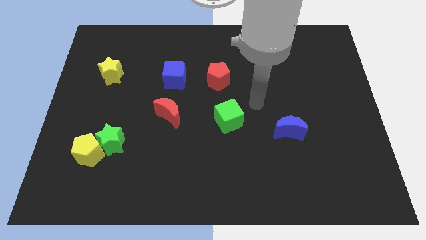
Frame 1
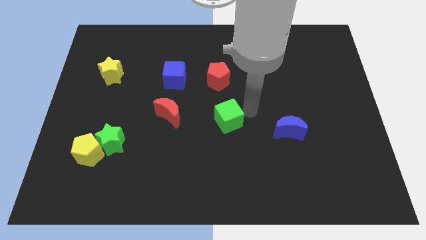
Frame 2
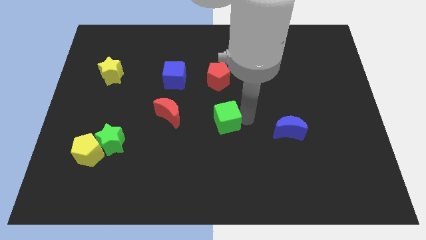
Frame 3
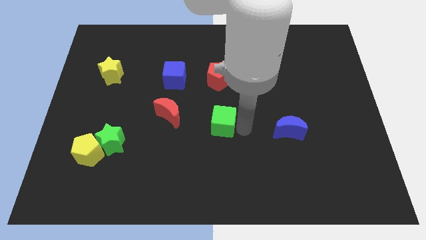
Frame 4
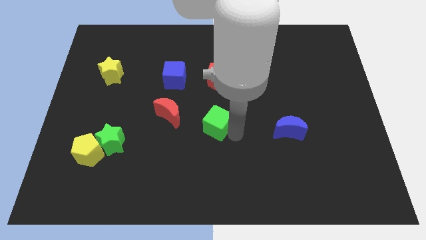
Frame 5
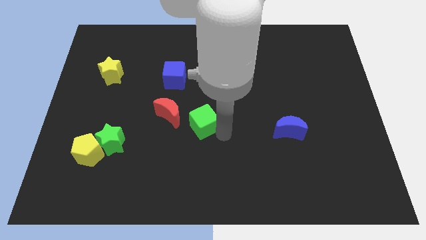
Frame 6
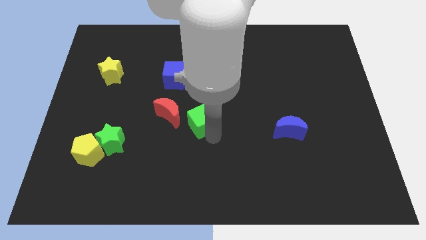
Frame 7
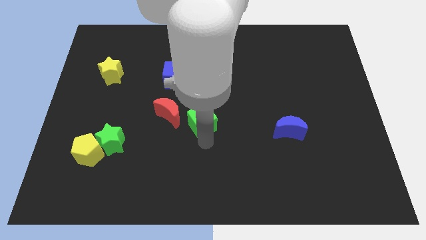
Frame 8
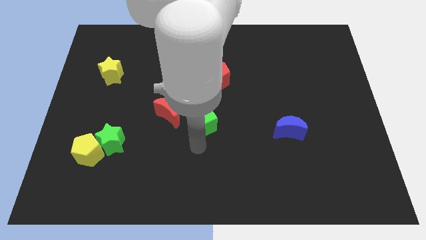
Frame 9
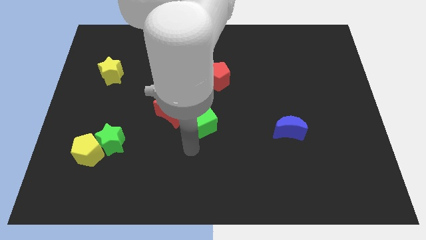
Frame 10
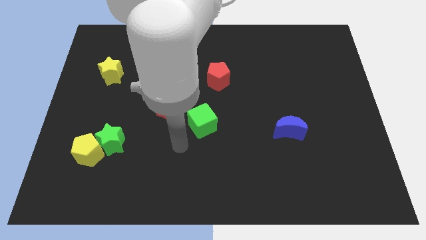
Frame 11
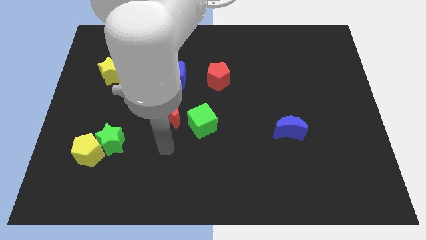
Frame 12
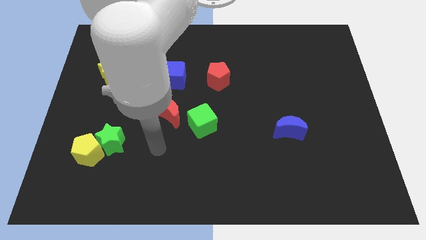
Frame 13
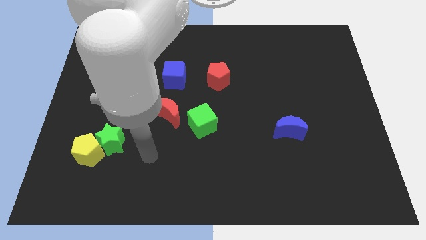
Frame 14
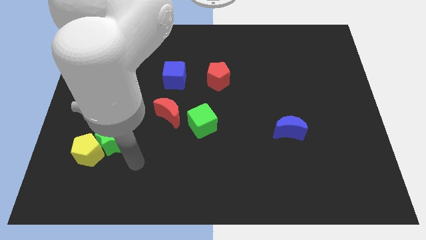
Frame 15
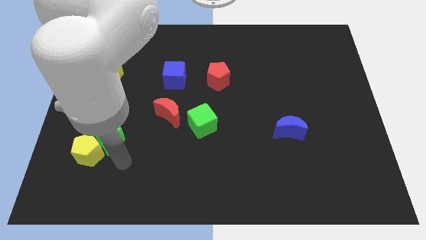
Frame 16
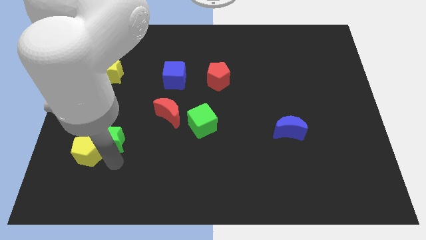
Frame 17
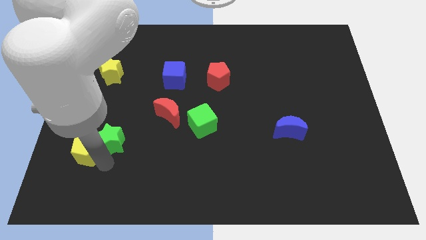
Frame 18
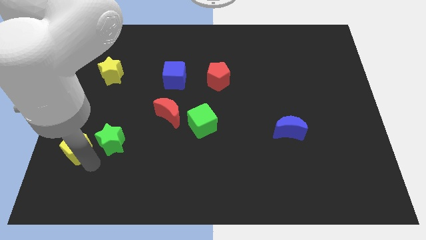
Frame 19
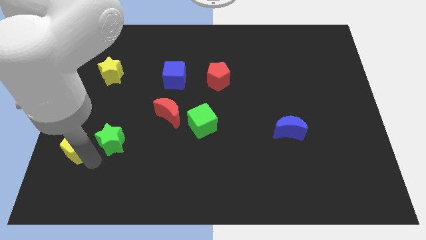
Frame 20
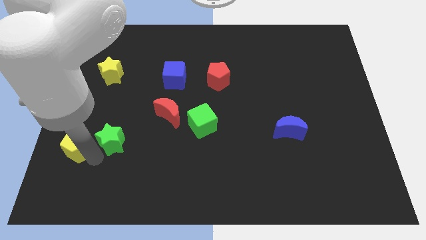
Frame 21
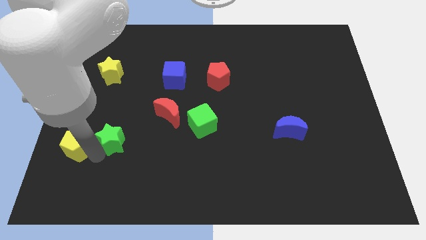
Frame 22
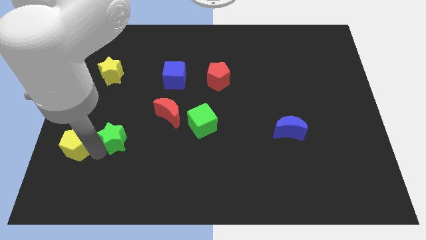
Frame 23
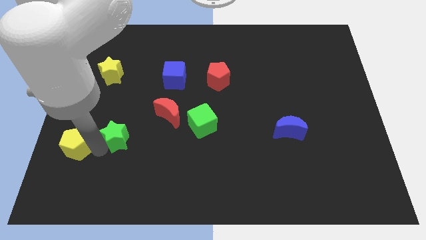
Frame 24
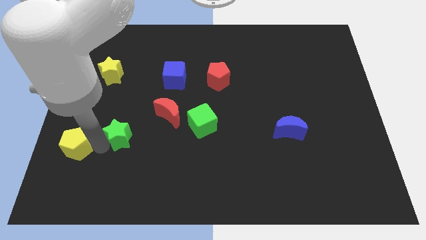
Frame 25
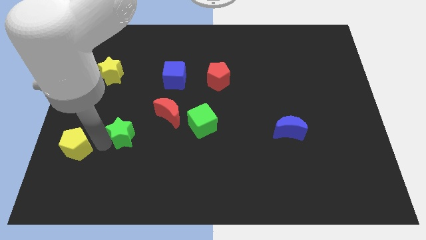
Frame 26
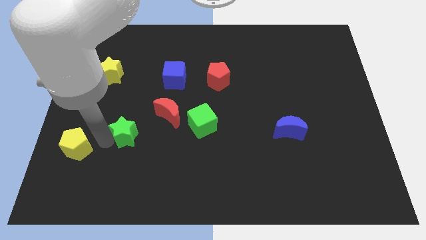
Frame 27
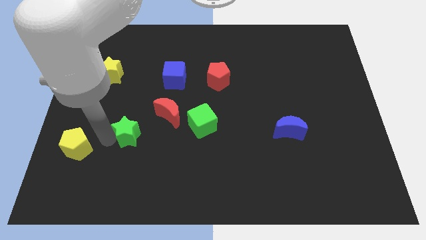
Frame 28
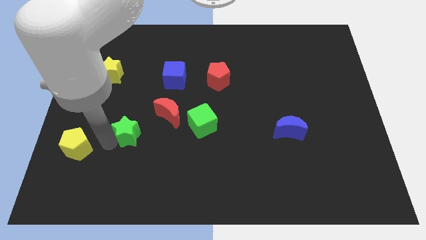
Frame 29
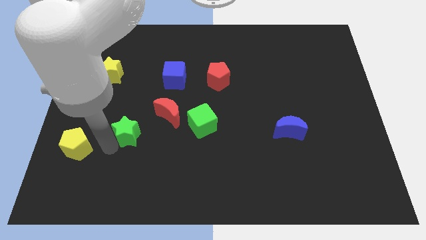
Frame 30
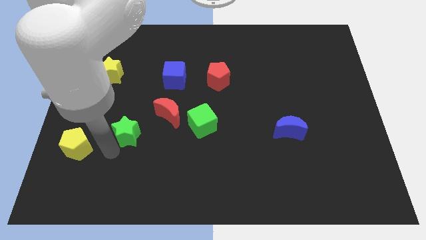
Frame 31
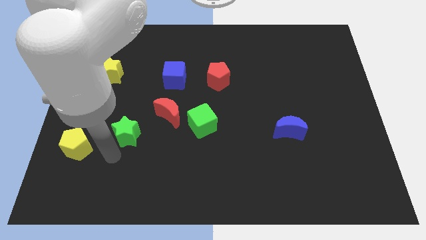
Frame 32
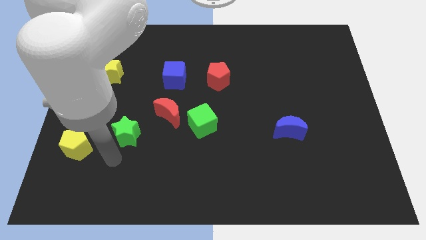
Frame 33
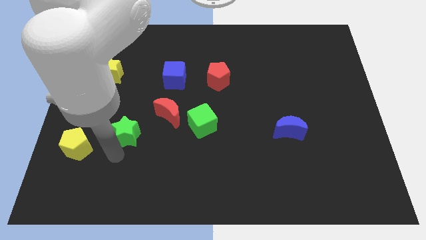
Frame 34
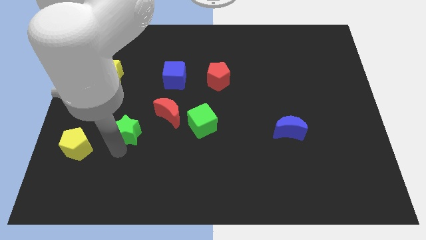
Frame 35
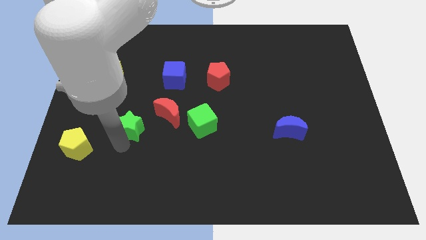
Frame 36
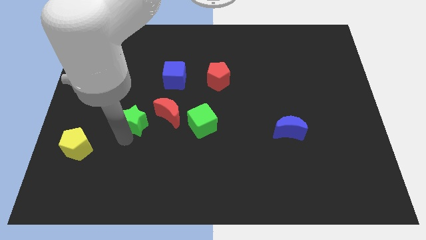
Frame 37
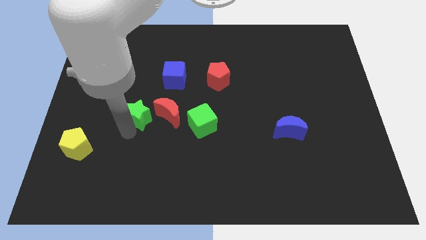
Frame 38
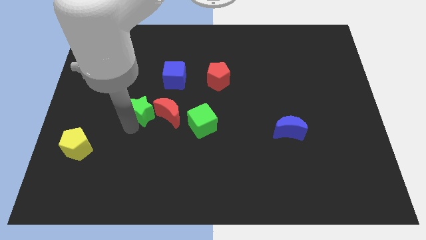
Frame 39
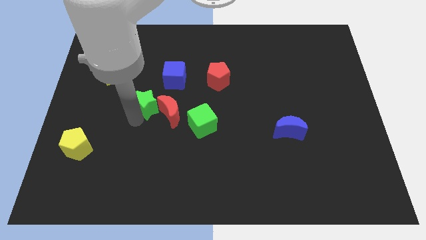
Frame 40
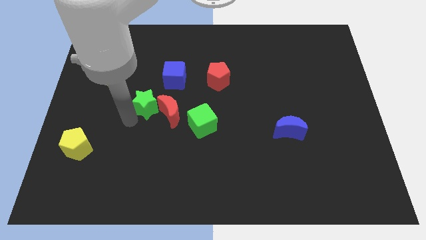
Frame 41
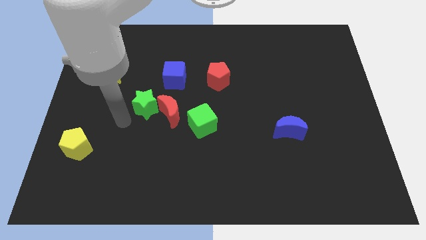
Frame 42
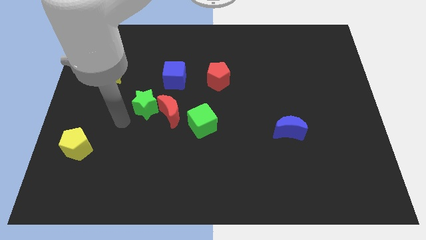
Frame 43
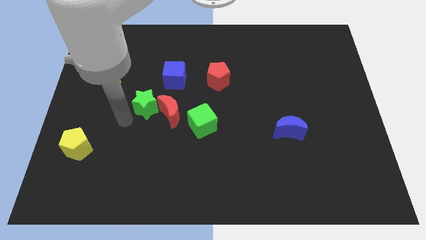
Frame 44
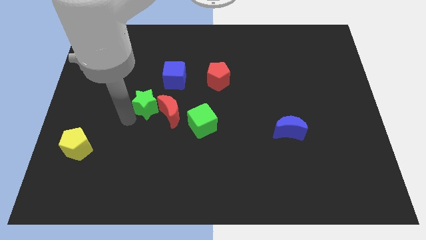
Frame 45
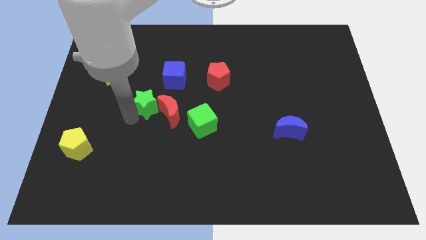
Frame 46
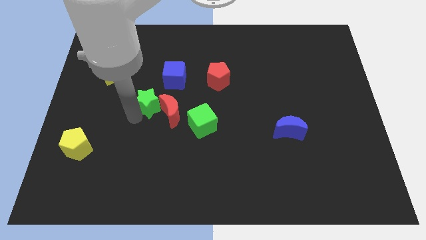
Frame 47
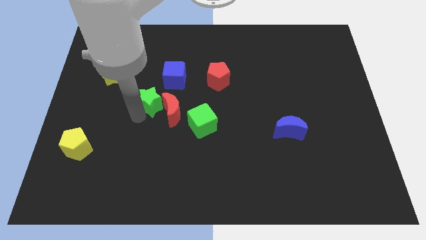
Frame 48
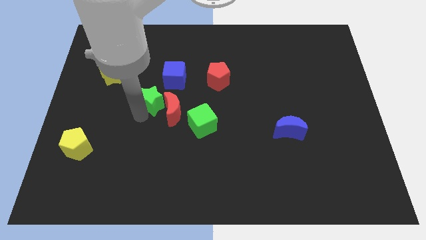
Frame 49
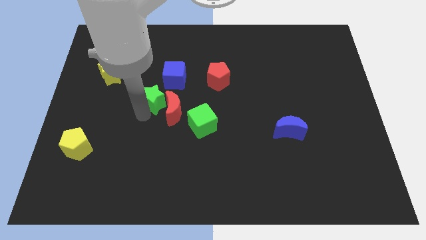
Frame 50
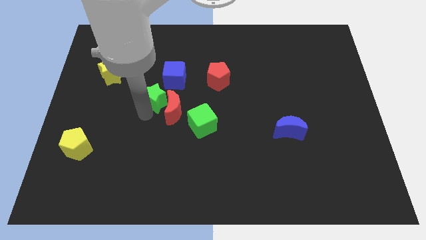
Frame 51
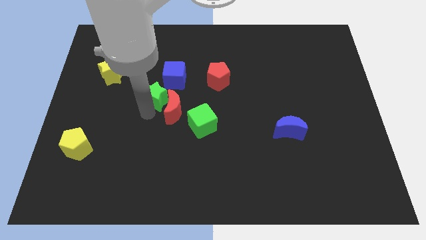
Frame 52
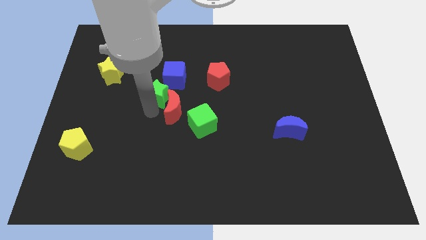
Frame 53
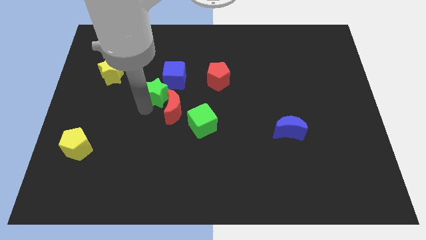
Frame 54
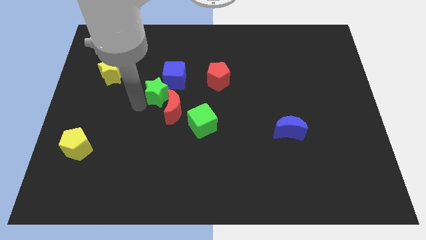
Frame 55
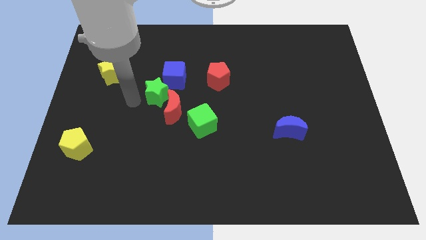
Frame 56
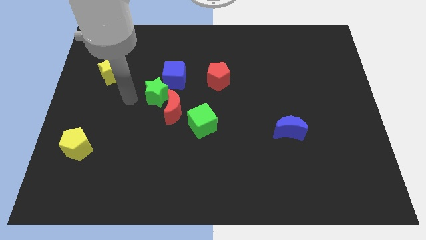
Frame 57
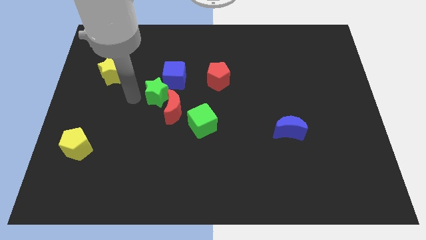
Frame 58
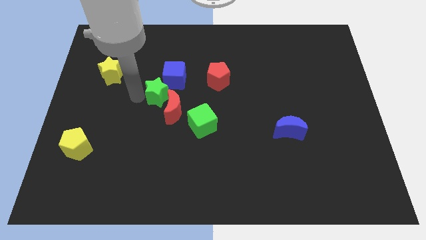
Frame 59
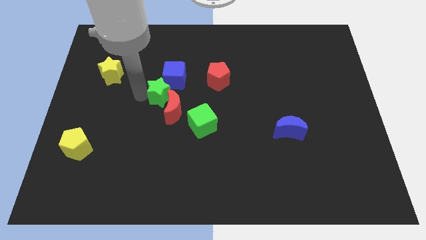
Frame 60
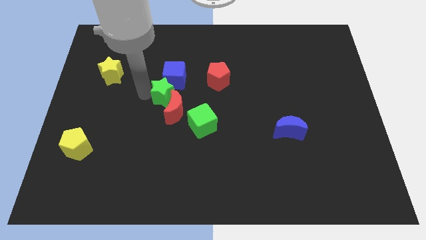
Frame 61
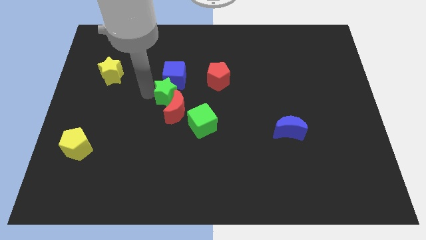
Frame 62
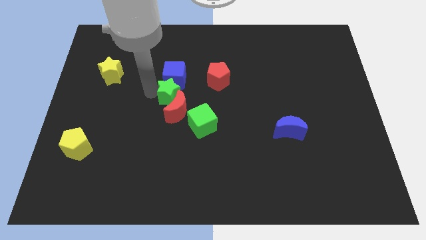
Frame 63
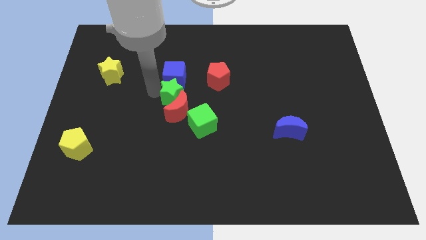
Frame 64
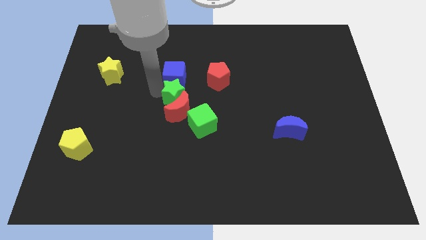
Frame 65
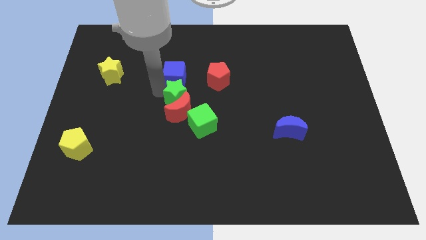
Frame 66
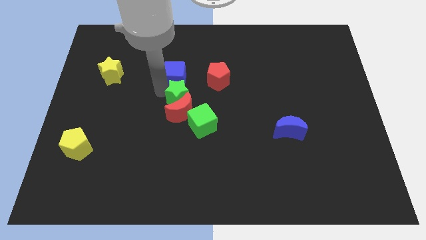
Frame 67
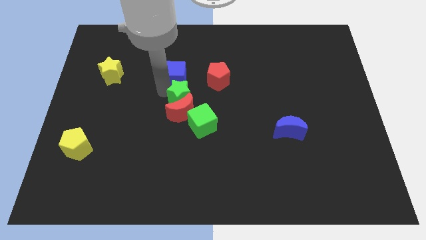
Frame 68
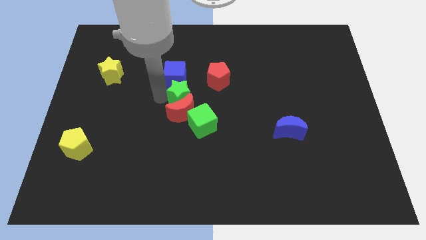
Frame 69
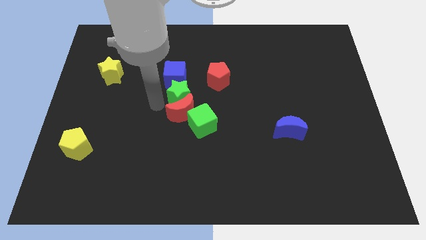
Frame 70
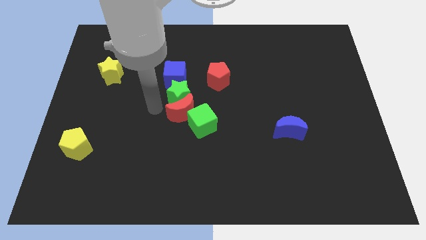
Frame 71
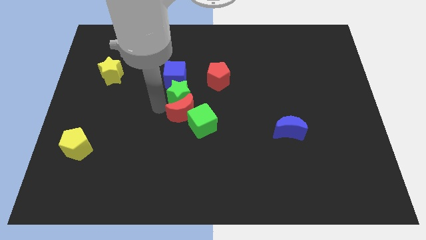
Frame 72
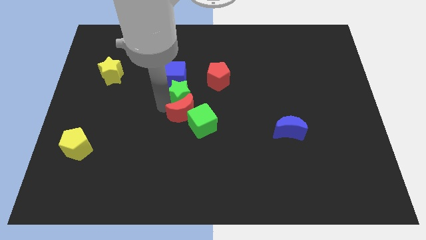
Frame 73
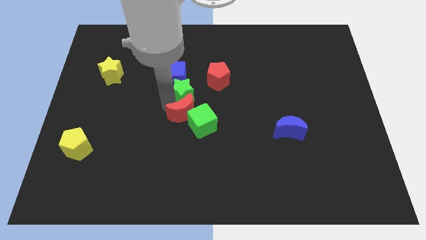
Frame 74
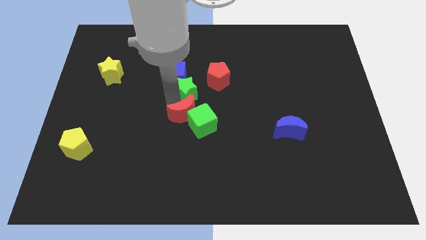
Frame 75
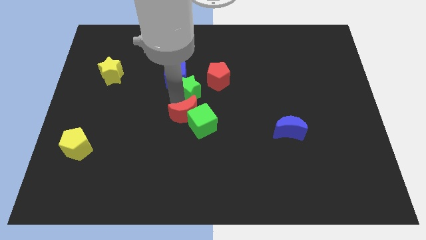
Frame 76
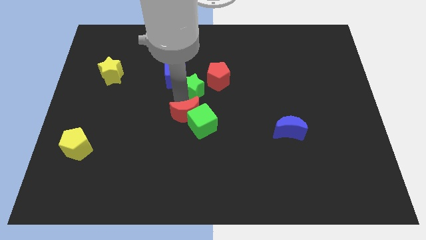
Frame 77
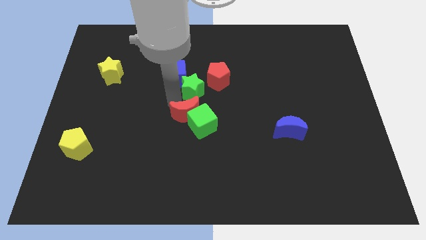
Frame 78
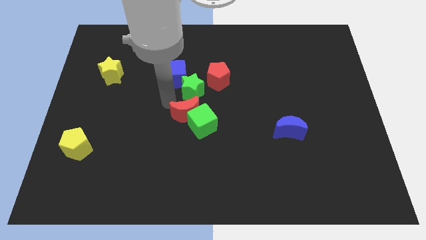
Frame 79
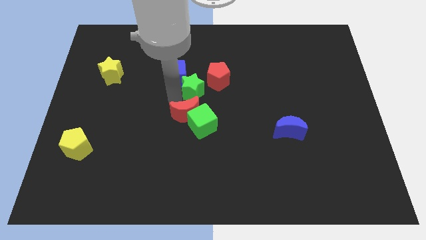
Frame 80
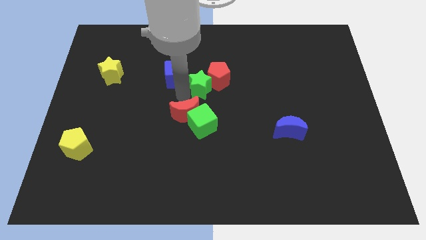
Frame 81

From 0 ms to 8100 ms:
move the green star towards the red pentagon
